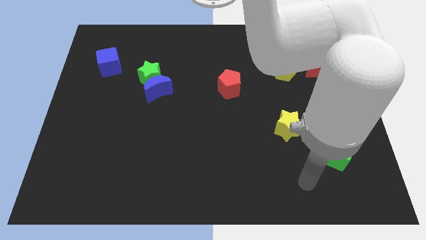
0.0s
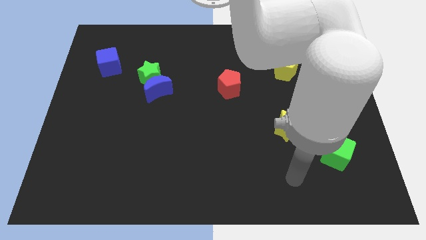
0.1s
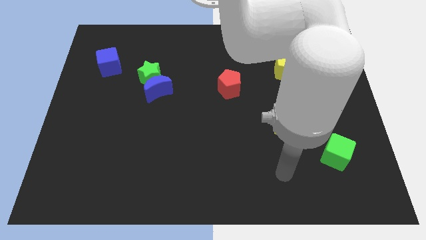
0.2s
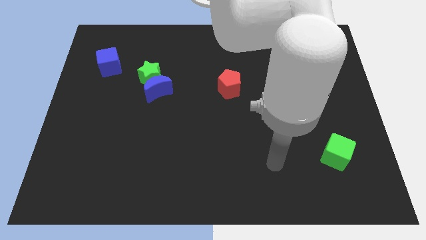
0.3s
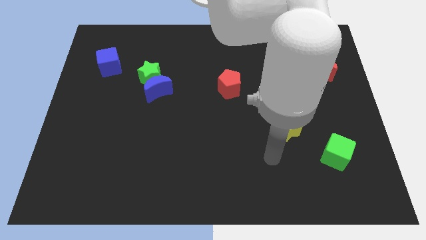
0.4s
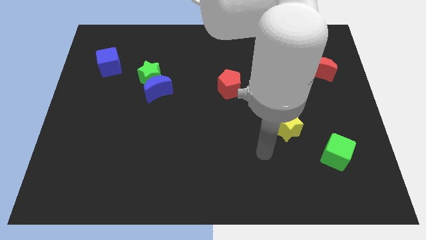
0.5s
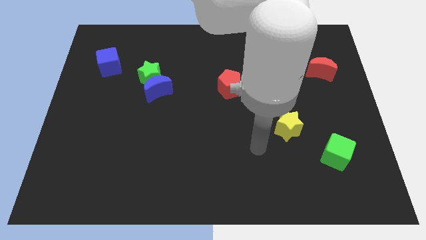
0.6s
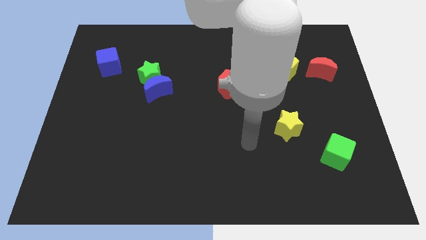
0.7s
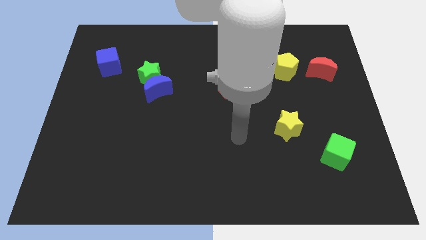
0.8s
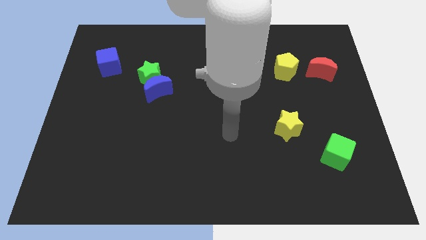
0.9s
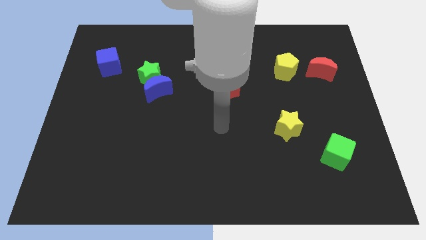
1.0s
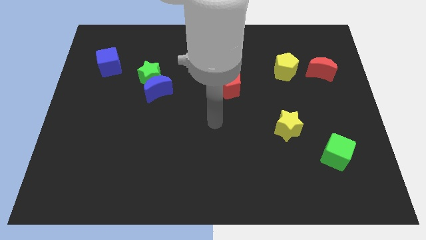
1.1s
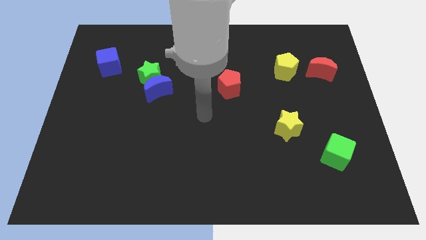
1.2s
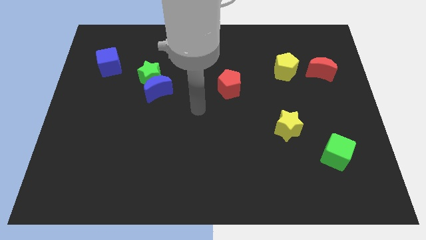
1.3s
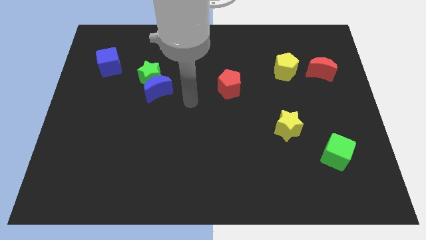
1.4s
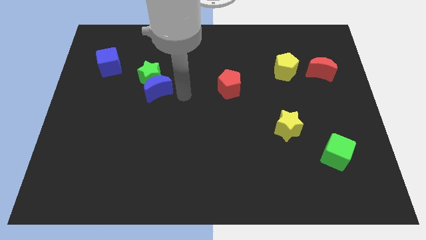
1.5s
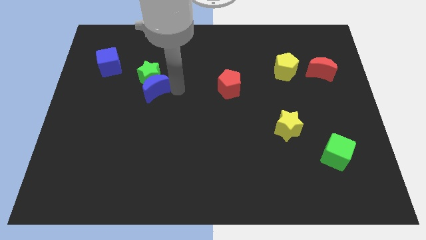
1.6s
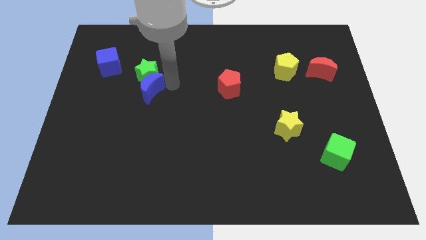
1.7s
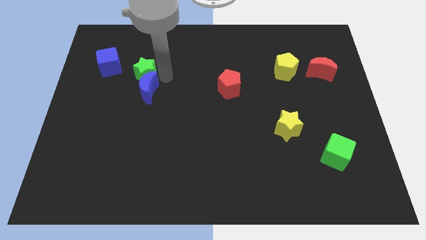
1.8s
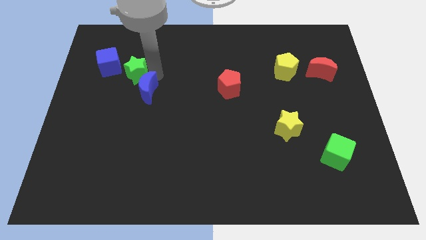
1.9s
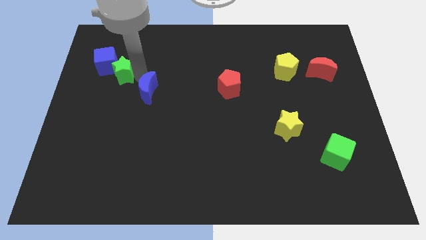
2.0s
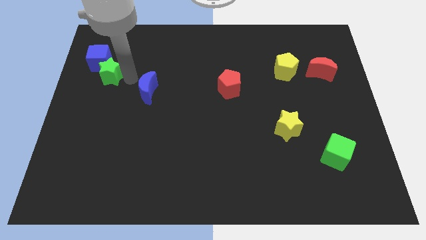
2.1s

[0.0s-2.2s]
separate the blue moon from the green star

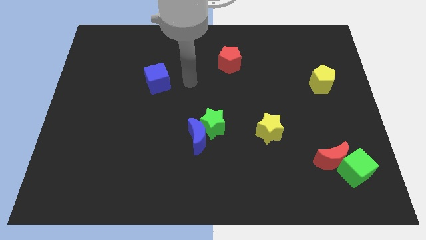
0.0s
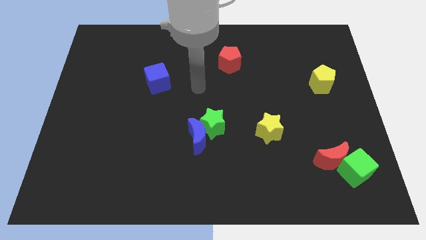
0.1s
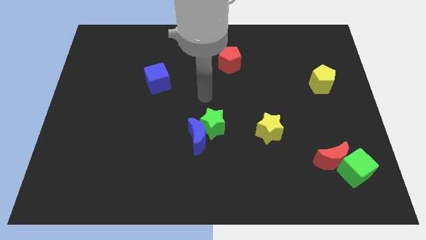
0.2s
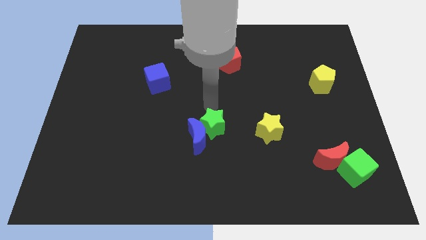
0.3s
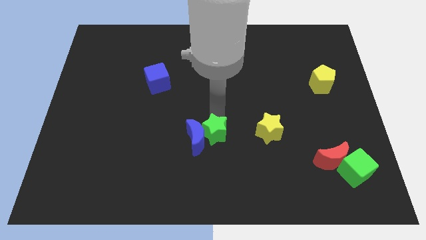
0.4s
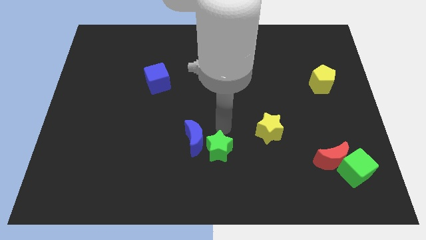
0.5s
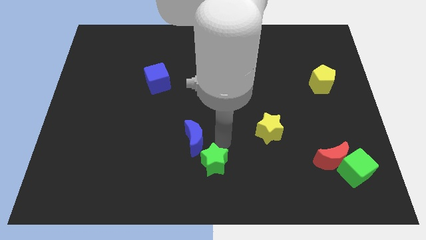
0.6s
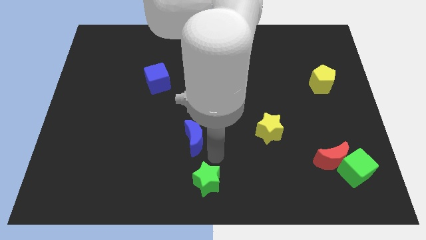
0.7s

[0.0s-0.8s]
pull the blue moon apart from the green star

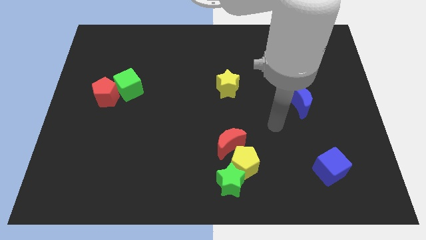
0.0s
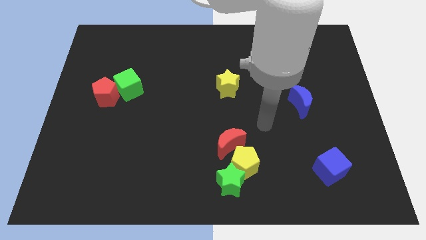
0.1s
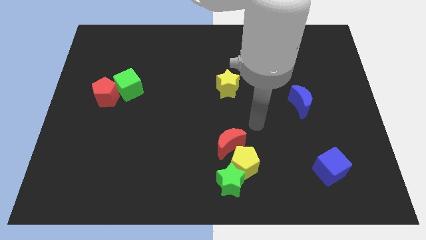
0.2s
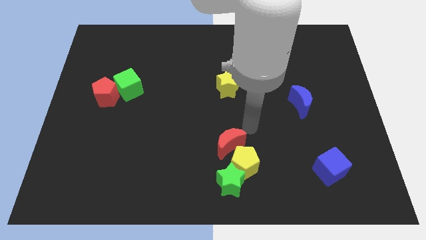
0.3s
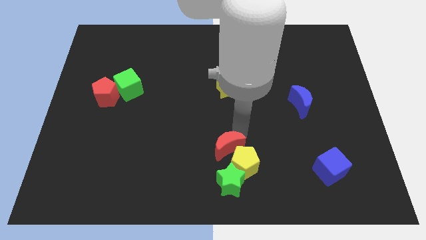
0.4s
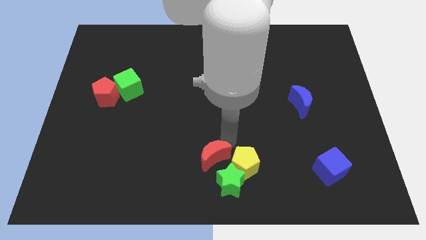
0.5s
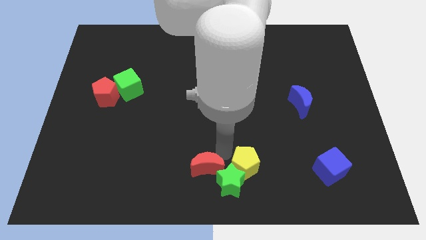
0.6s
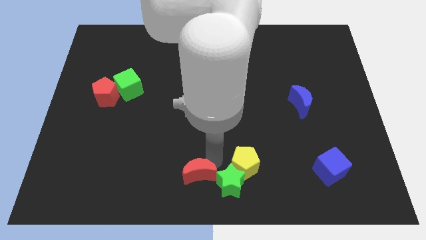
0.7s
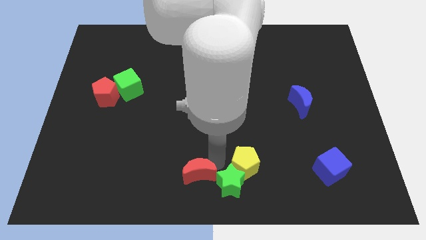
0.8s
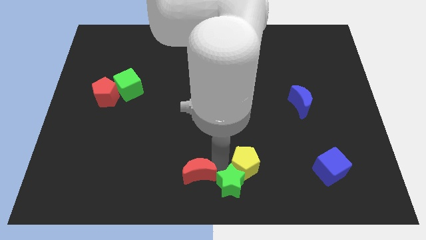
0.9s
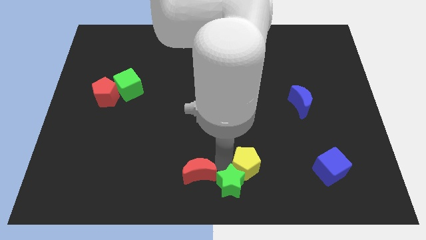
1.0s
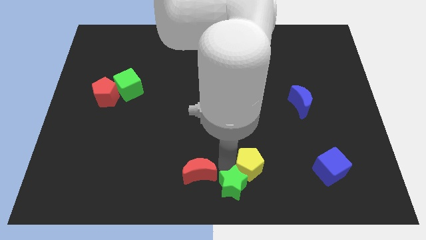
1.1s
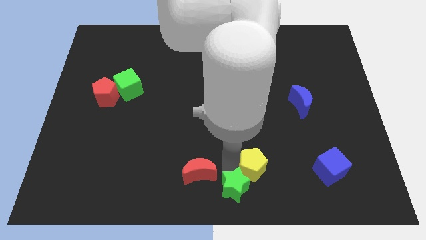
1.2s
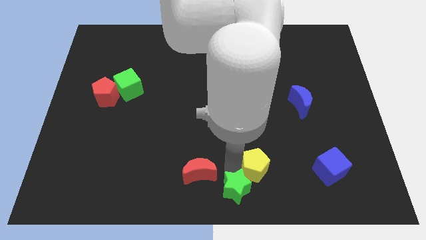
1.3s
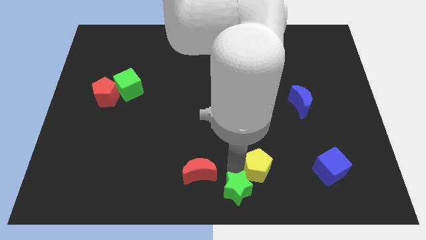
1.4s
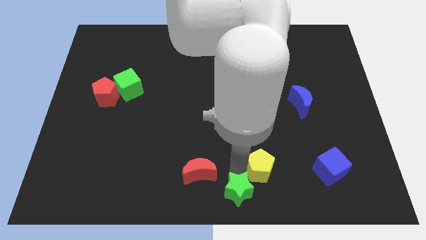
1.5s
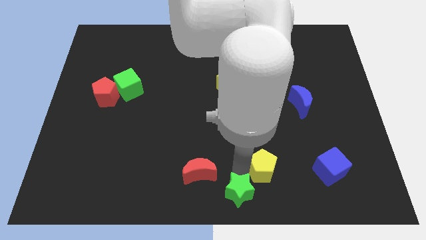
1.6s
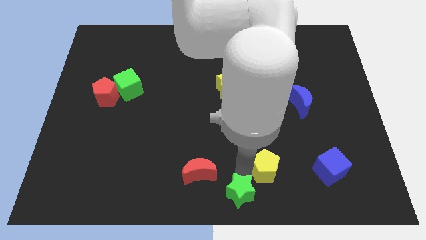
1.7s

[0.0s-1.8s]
separate the yellow pentagon from the green star and red moon

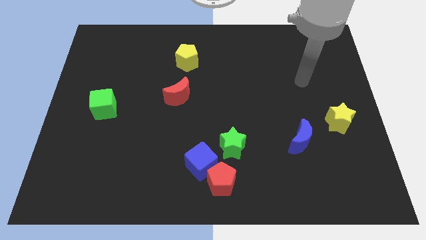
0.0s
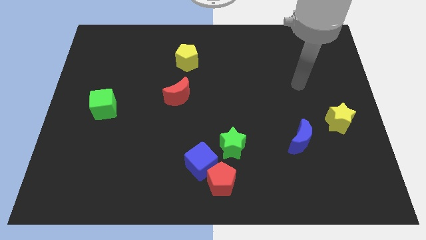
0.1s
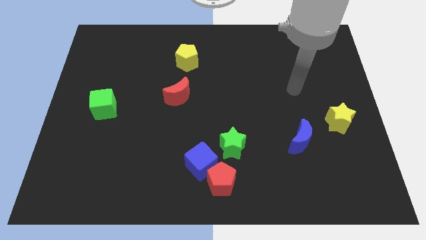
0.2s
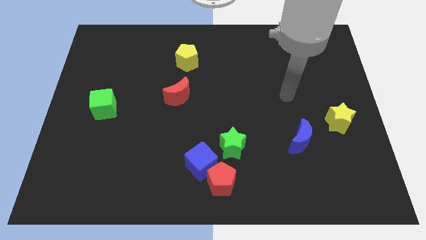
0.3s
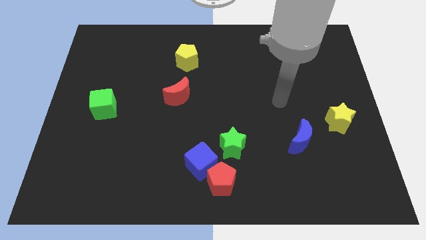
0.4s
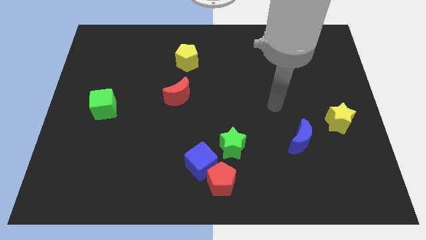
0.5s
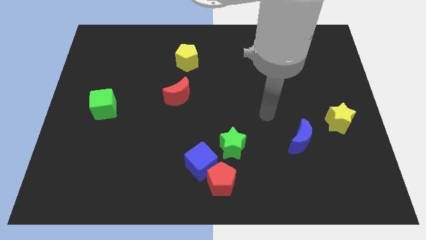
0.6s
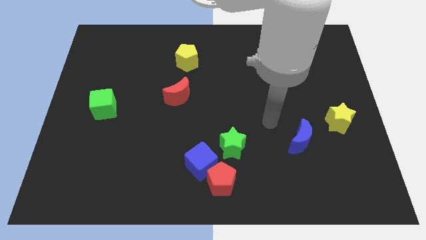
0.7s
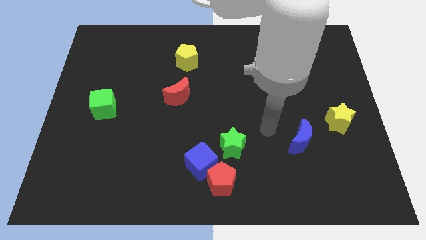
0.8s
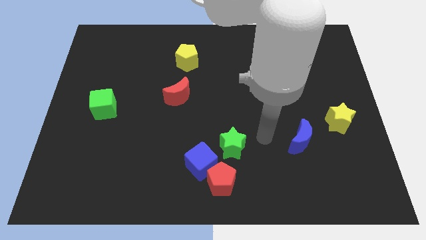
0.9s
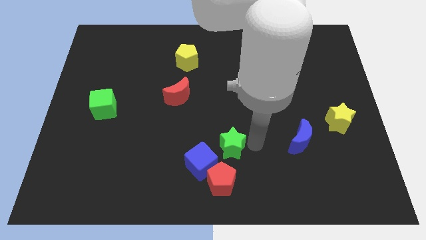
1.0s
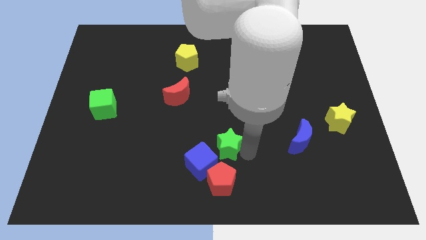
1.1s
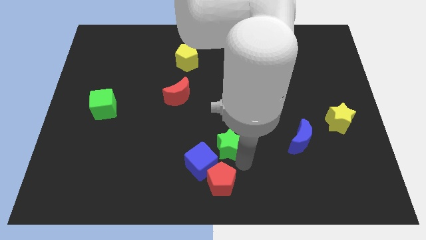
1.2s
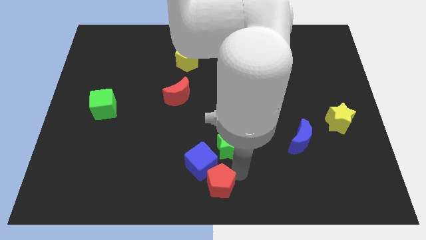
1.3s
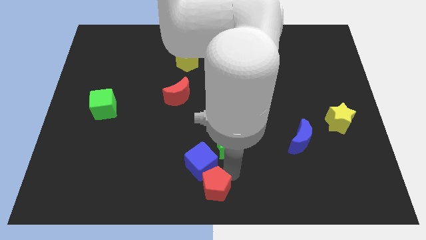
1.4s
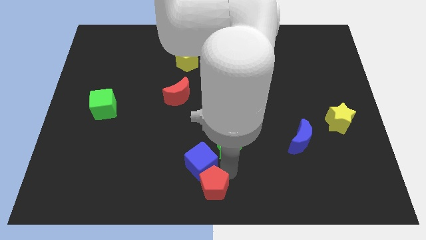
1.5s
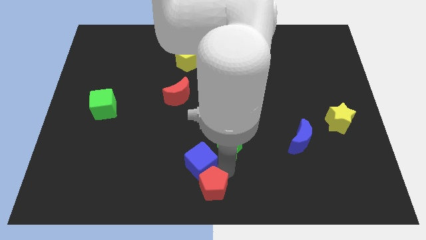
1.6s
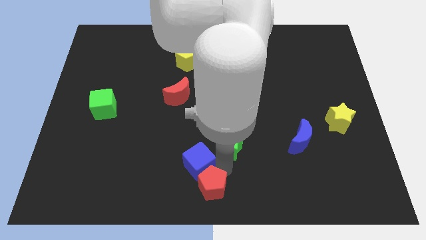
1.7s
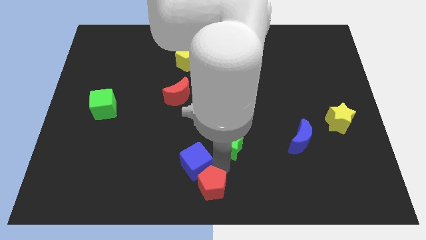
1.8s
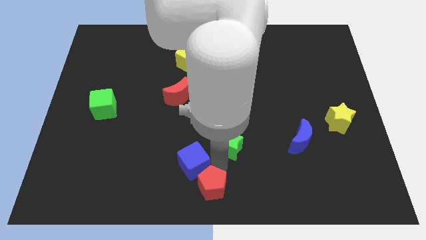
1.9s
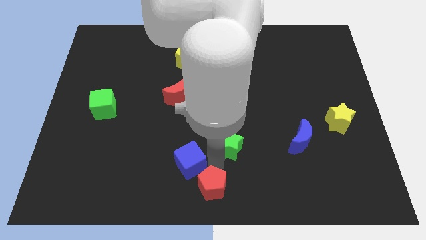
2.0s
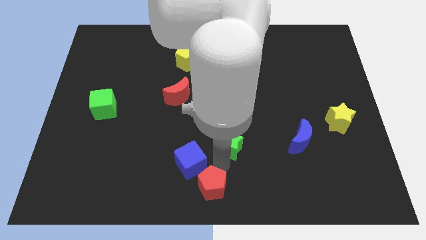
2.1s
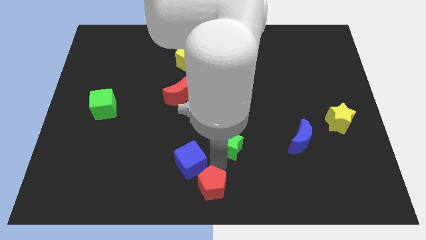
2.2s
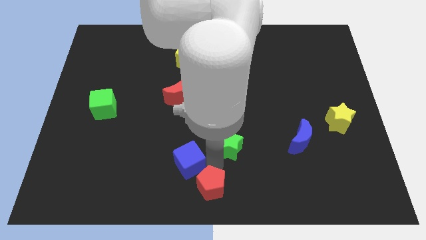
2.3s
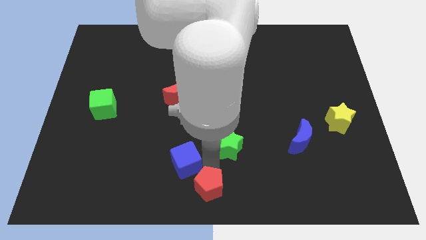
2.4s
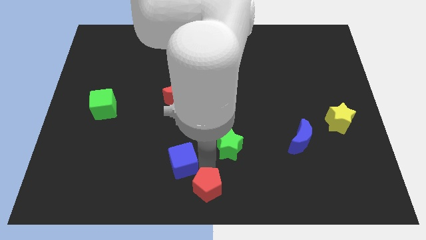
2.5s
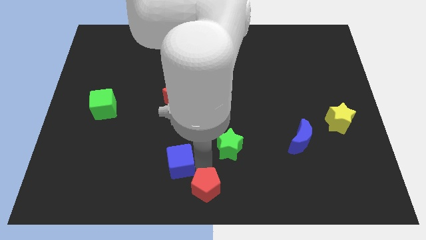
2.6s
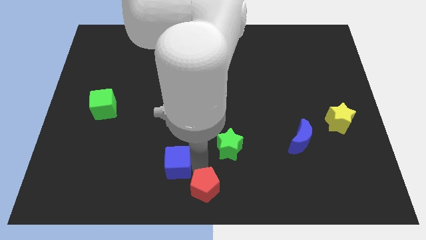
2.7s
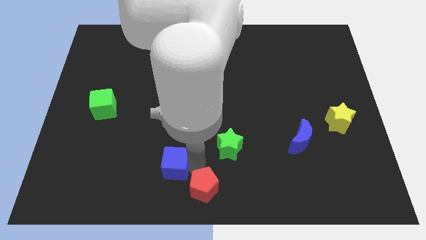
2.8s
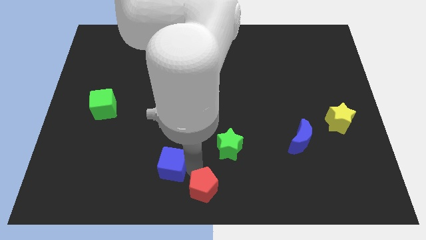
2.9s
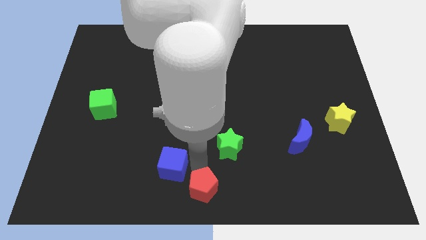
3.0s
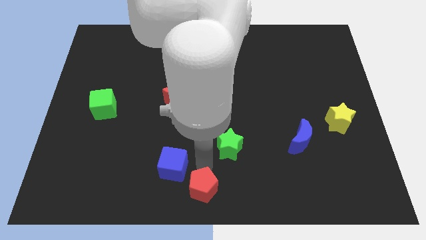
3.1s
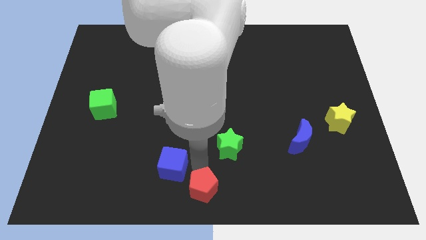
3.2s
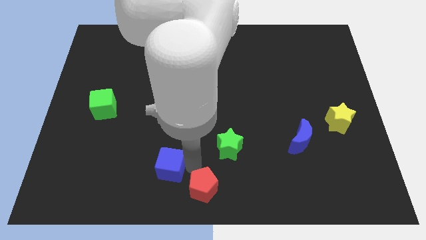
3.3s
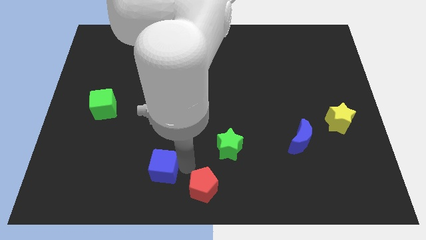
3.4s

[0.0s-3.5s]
move the blue cube away from the red pentagon and green star

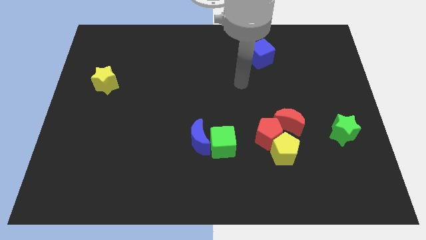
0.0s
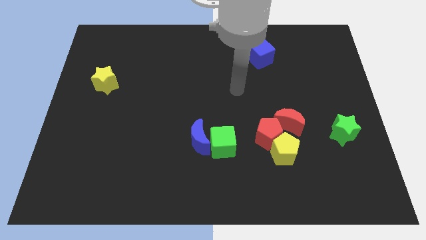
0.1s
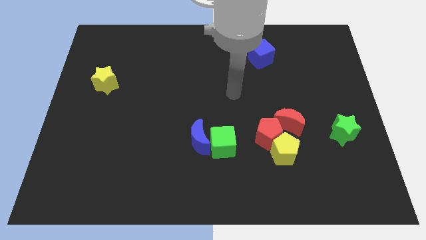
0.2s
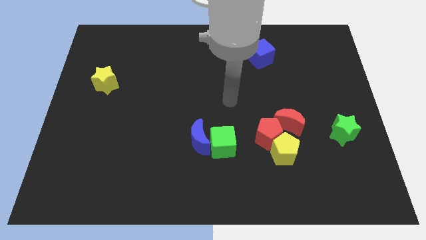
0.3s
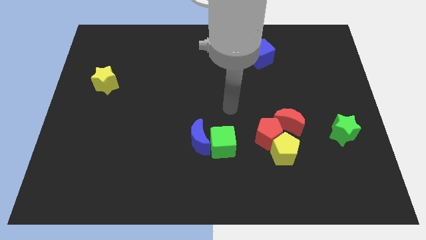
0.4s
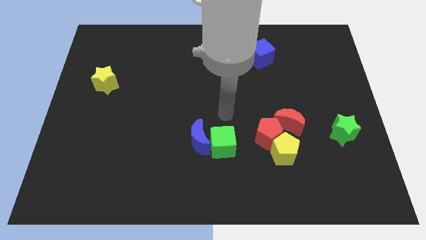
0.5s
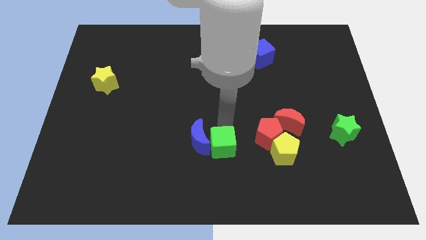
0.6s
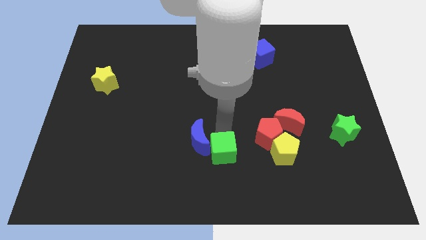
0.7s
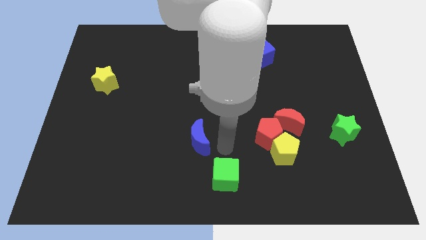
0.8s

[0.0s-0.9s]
move the blue moon away from the green cube
